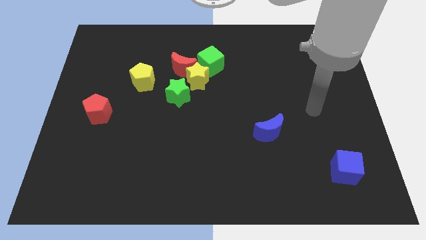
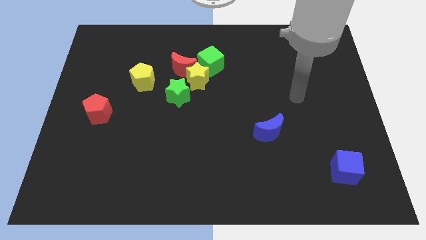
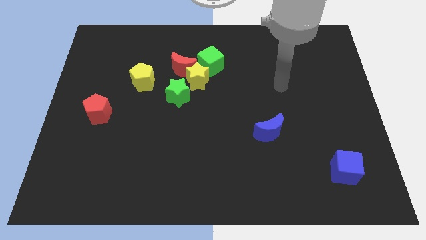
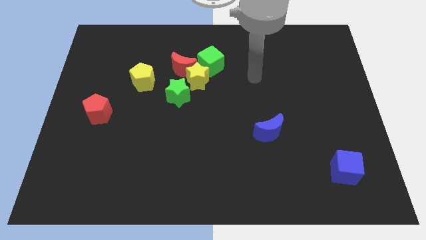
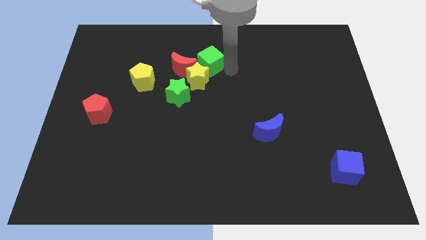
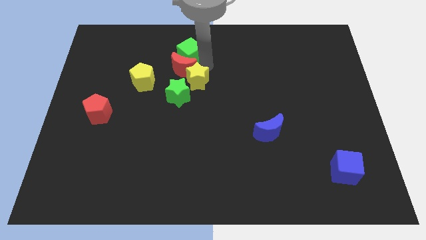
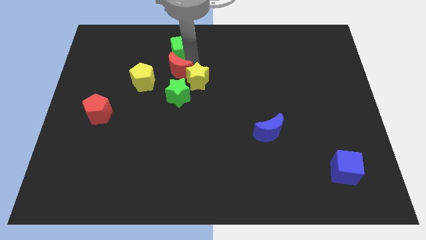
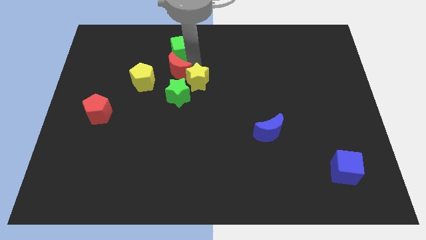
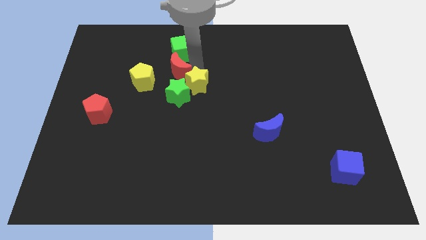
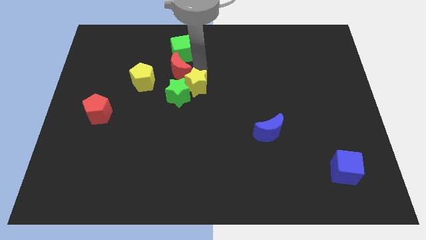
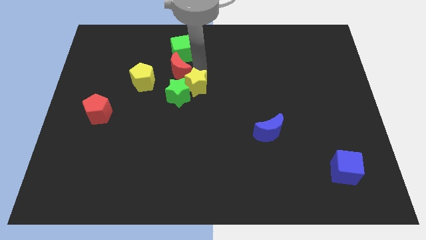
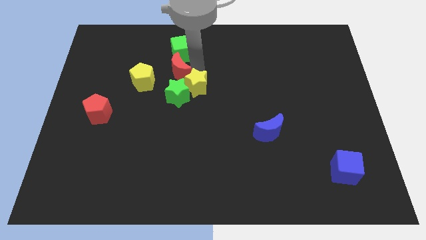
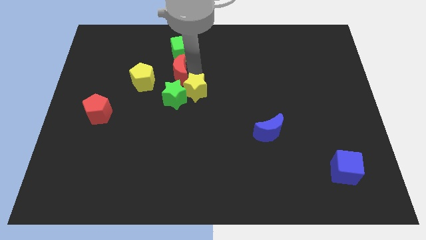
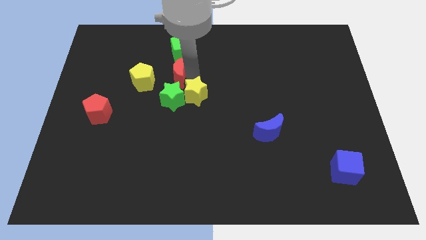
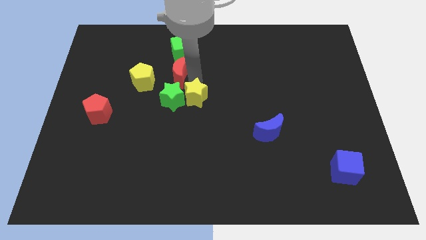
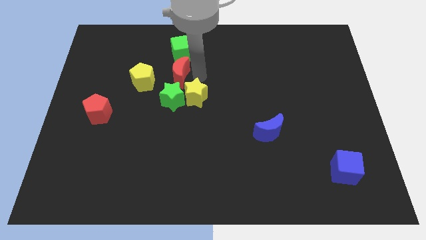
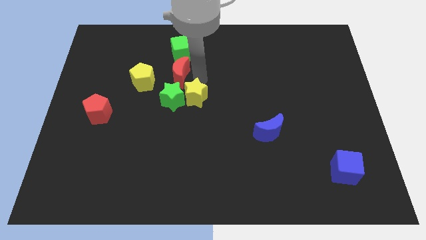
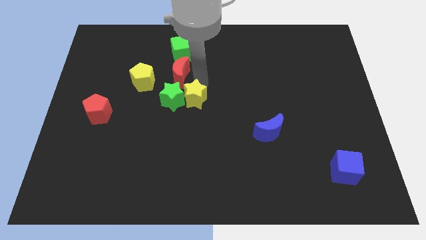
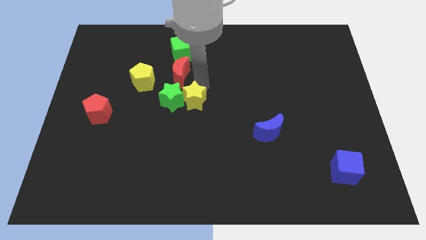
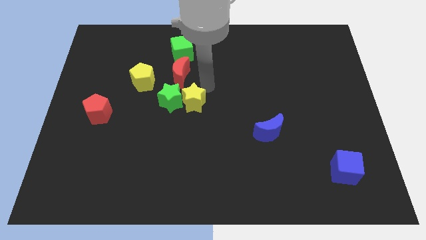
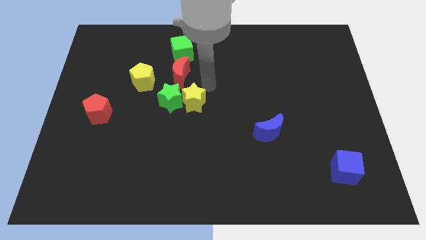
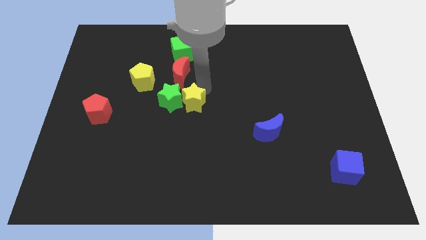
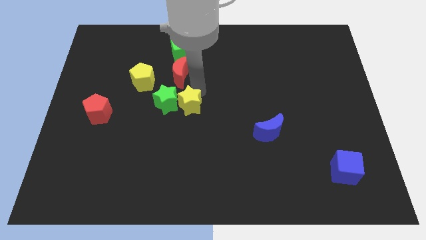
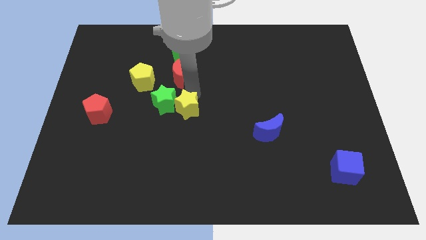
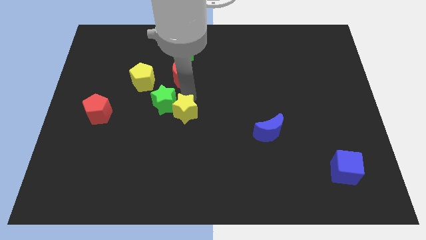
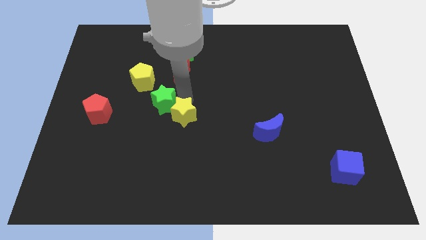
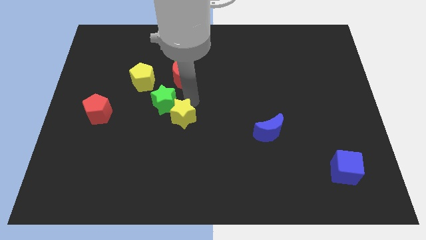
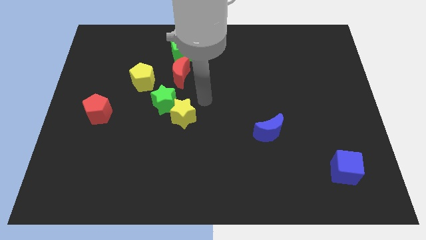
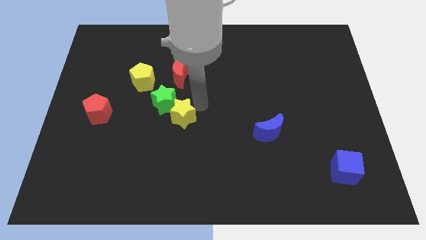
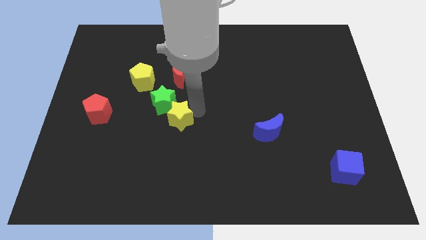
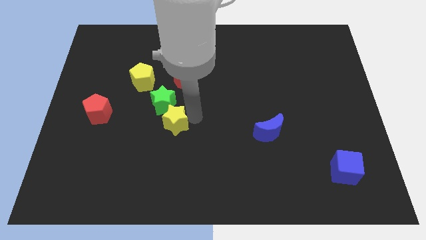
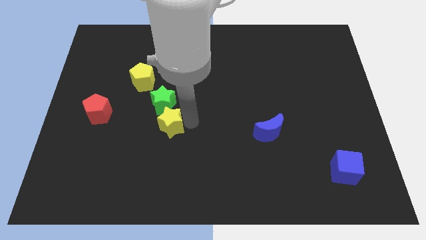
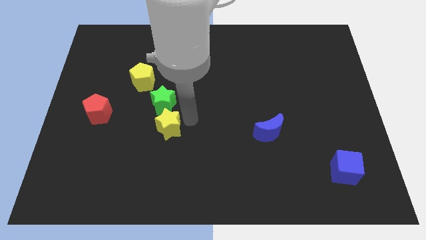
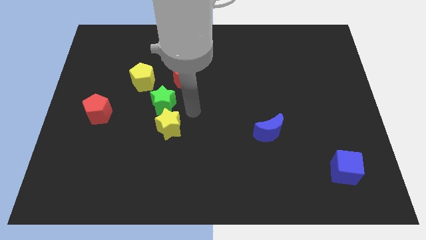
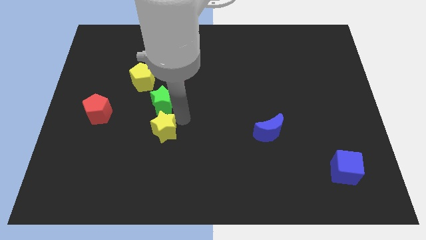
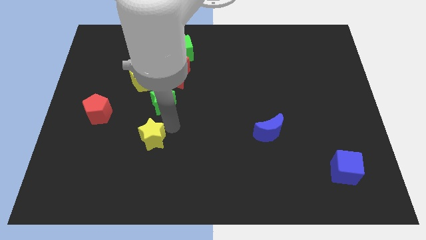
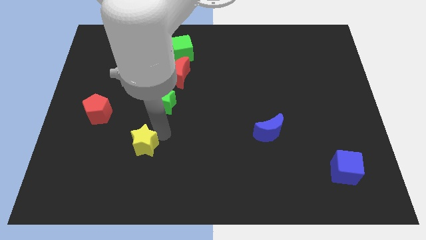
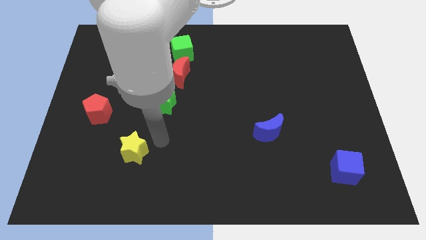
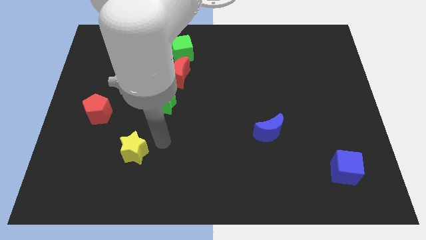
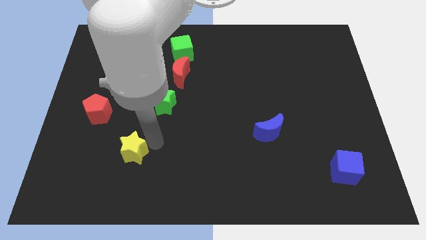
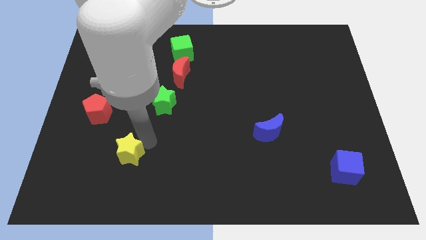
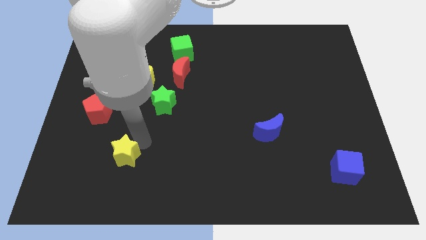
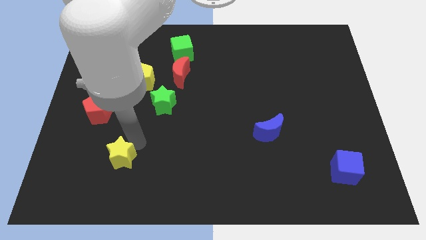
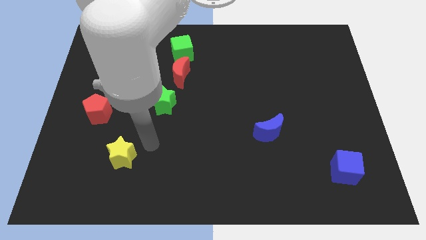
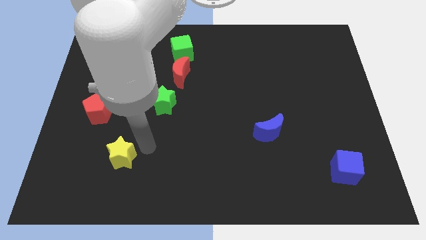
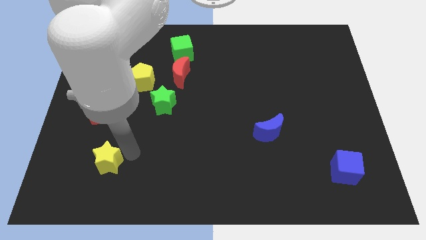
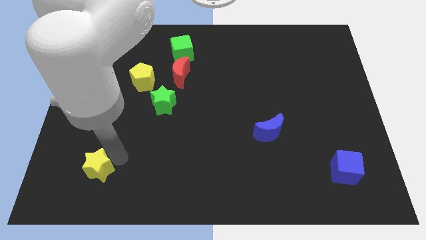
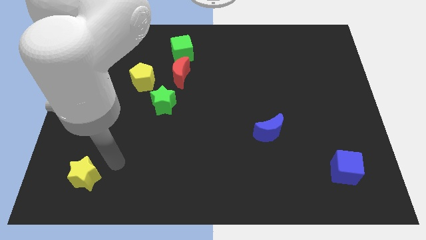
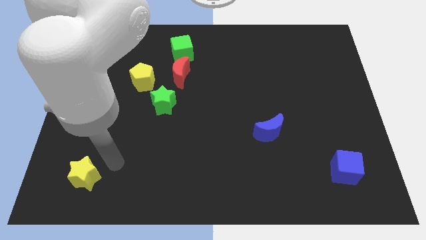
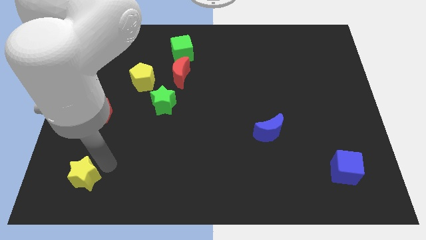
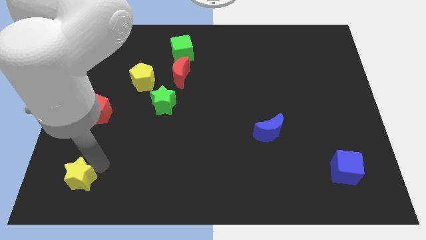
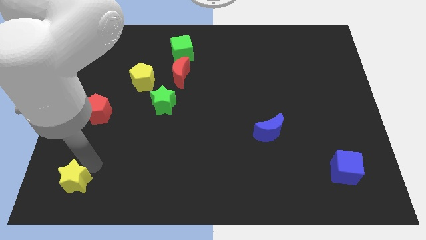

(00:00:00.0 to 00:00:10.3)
put the yellow star to the bottom left

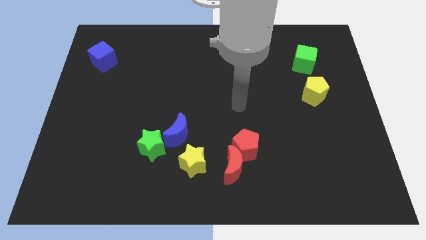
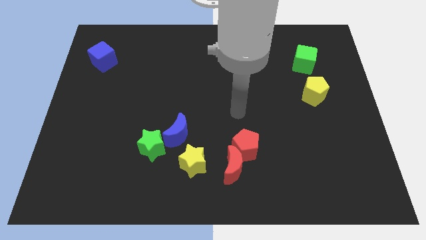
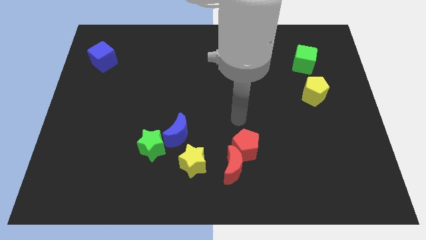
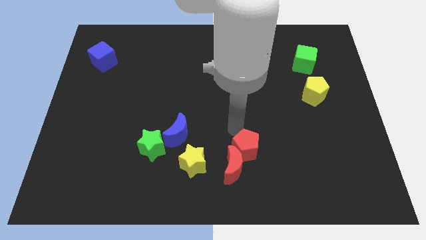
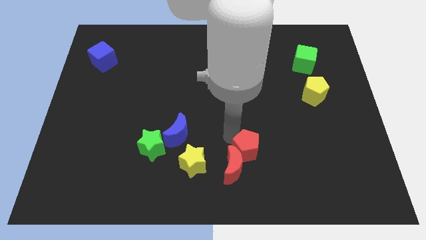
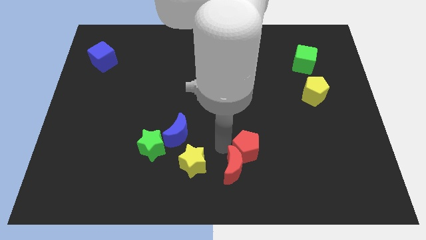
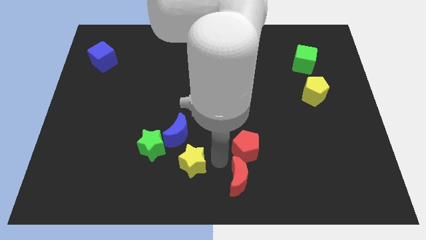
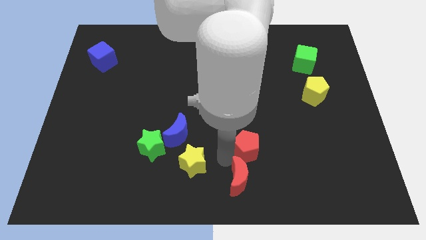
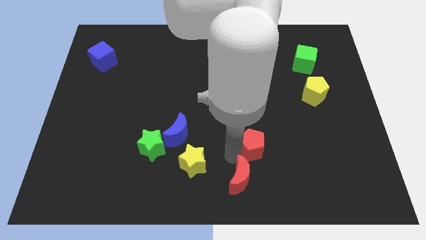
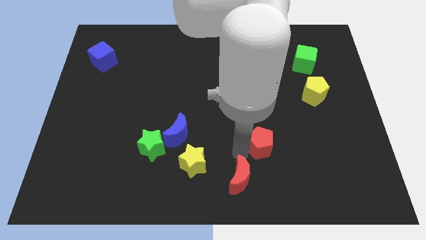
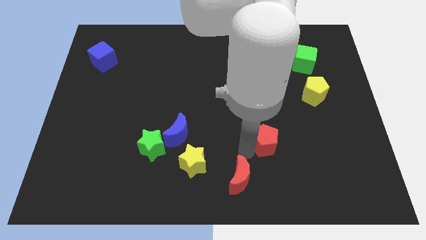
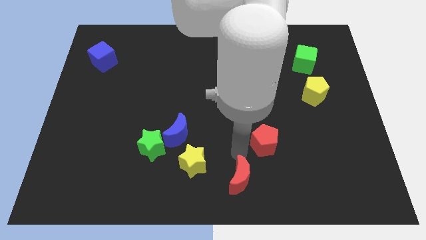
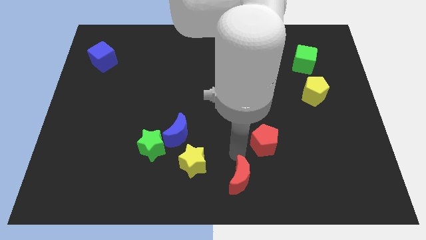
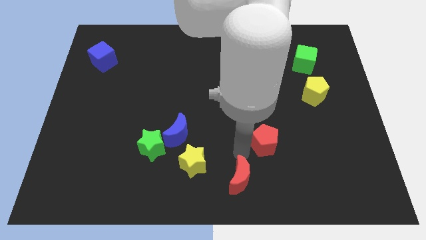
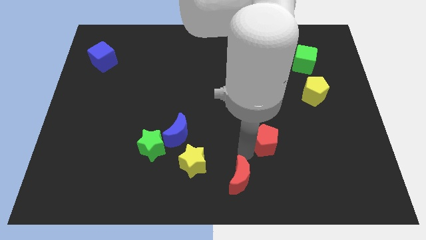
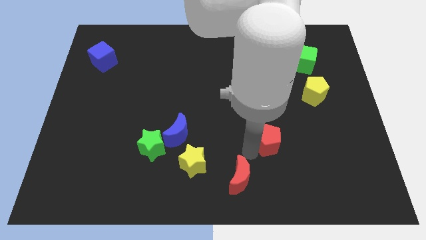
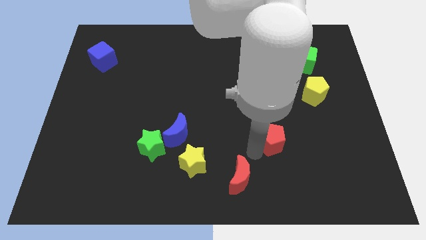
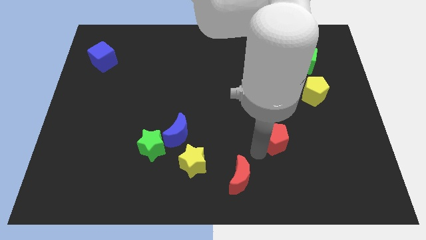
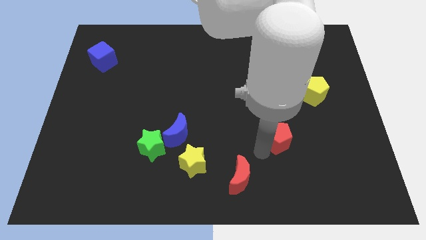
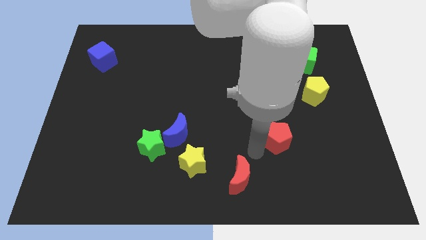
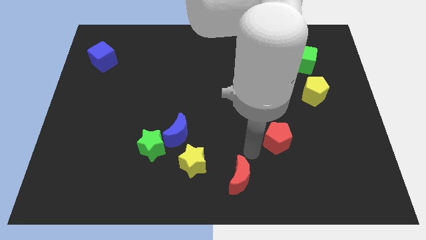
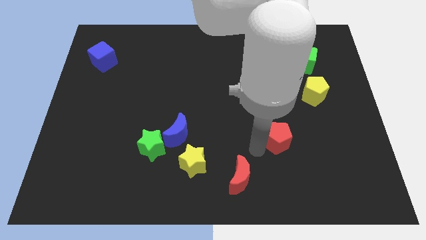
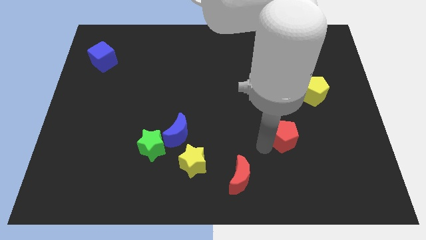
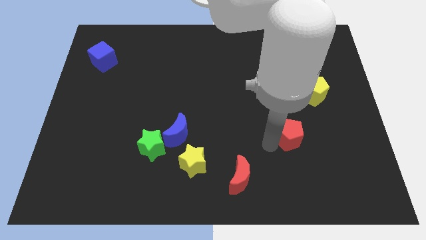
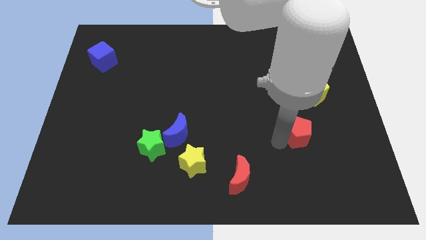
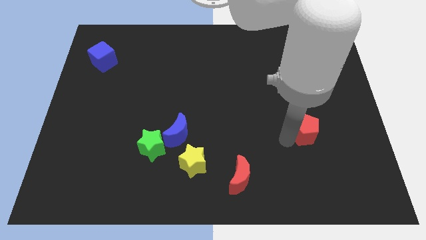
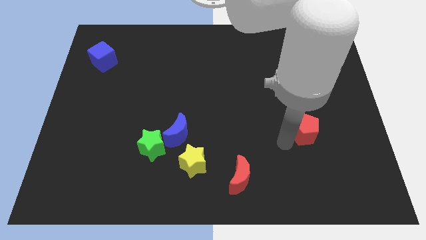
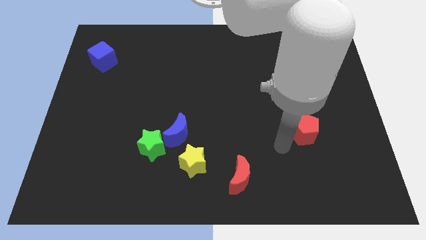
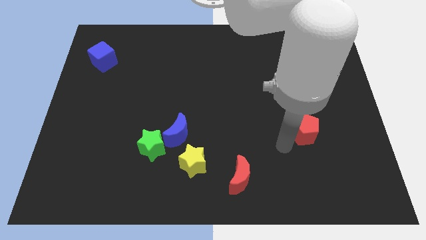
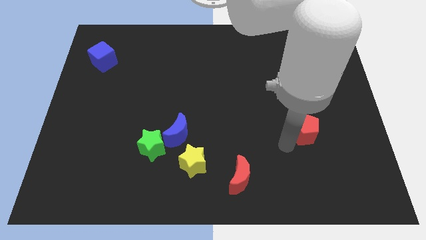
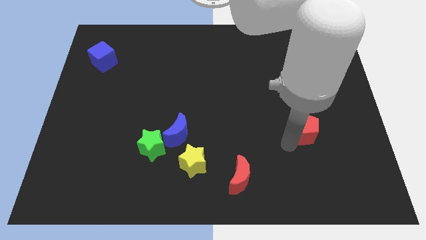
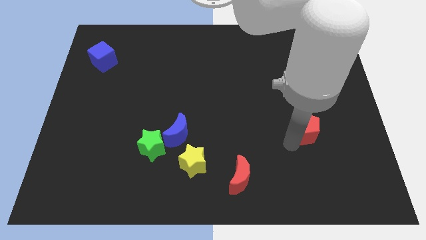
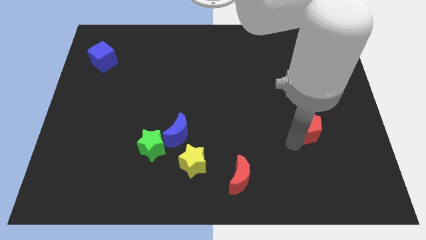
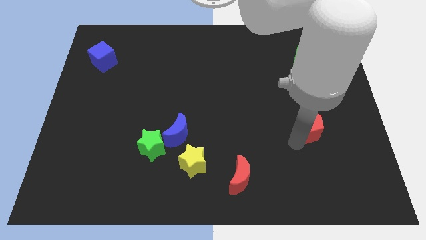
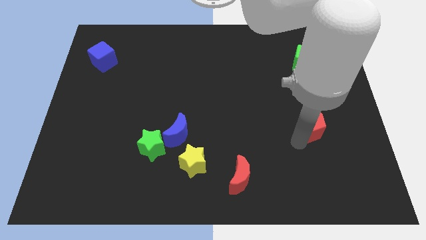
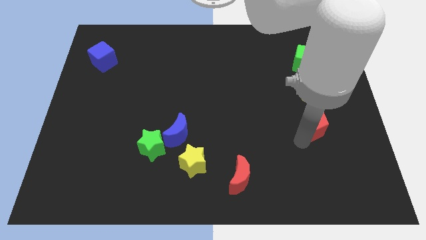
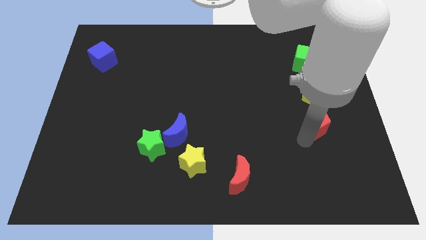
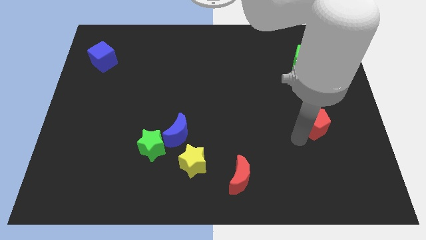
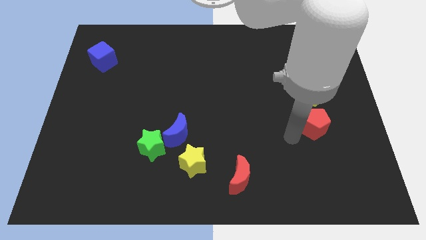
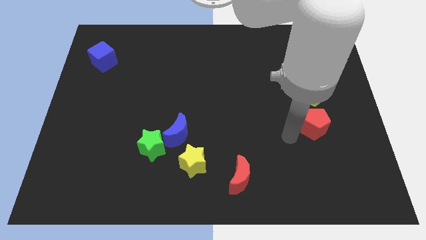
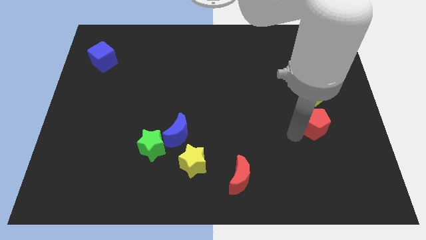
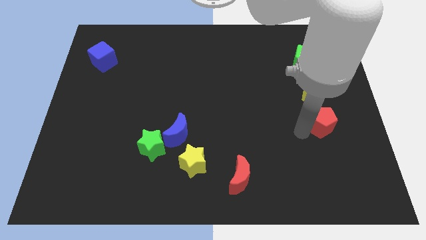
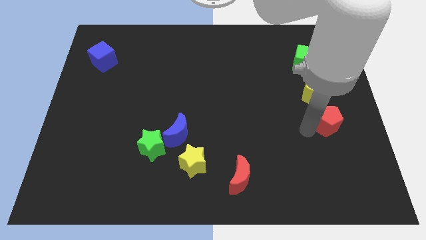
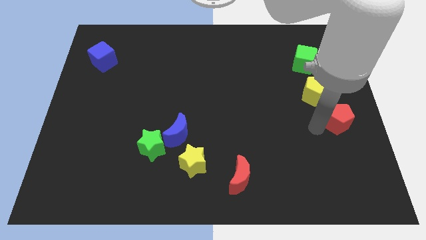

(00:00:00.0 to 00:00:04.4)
slide the red pentagon to the center right
